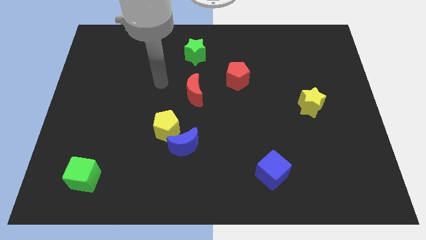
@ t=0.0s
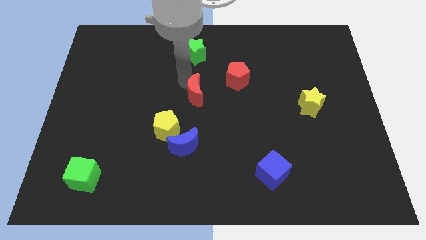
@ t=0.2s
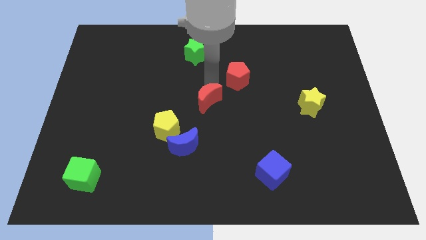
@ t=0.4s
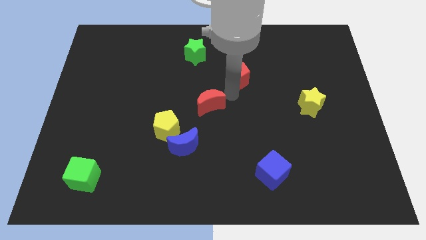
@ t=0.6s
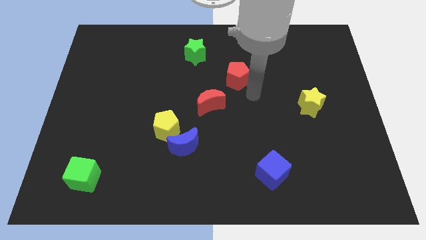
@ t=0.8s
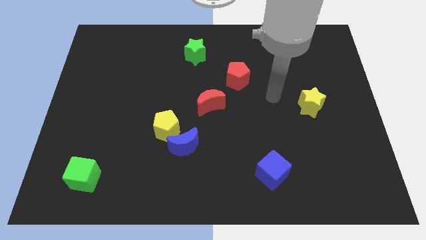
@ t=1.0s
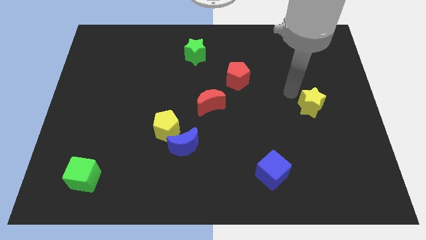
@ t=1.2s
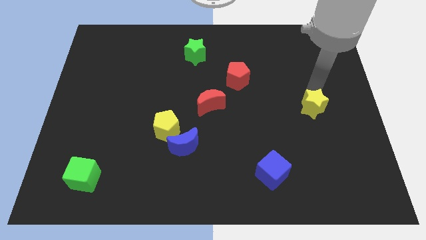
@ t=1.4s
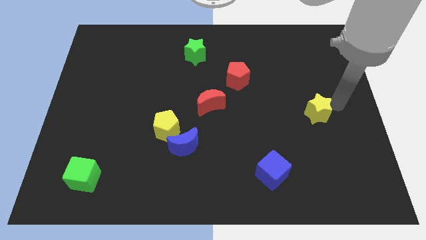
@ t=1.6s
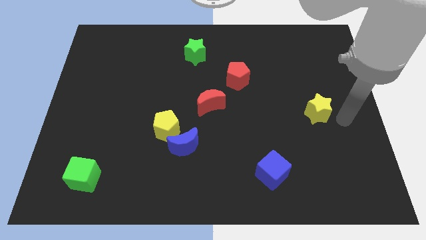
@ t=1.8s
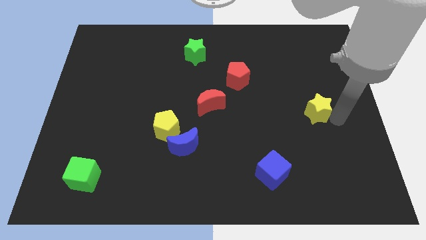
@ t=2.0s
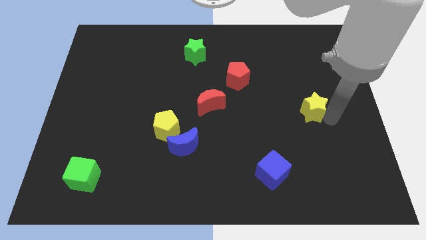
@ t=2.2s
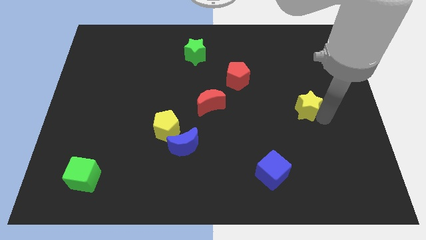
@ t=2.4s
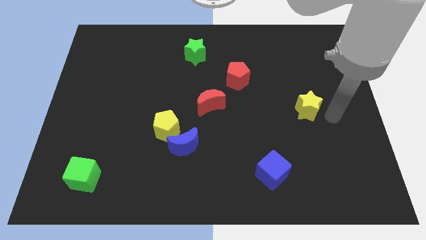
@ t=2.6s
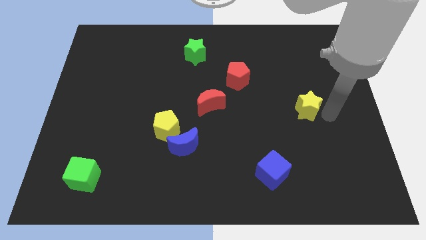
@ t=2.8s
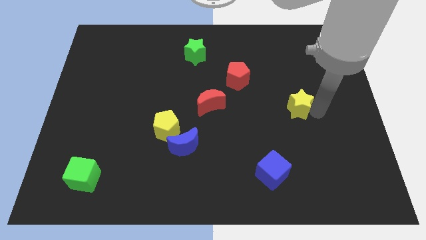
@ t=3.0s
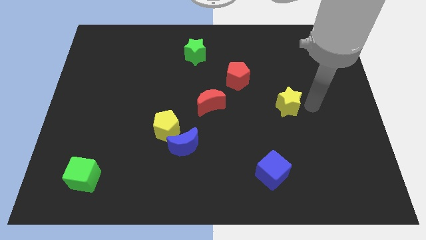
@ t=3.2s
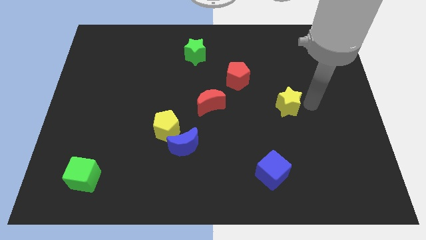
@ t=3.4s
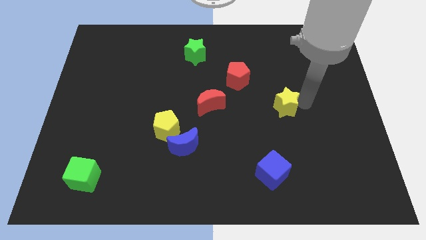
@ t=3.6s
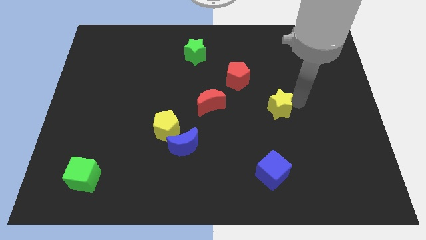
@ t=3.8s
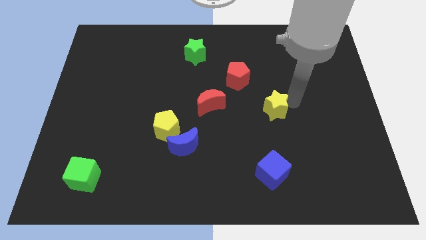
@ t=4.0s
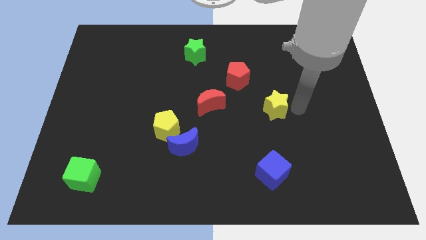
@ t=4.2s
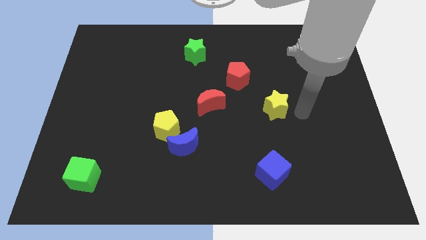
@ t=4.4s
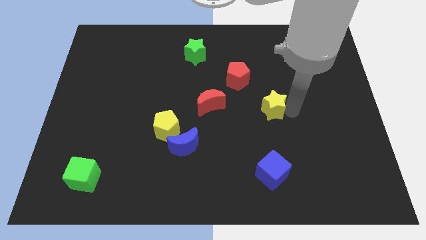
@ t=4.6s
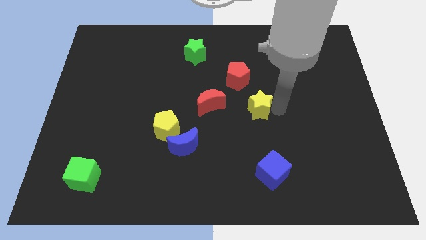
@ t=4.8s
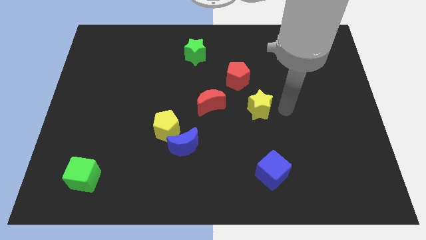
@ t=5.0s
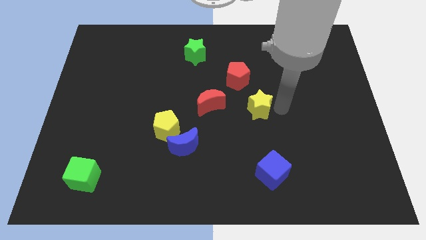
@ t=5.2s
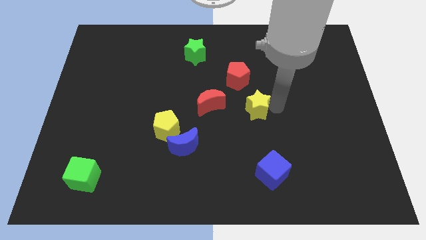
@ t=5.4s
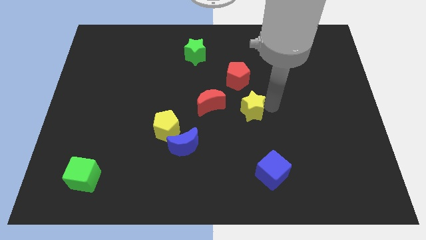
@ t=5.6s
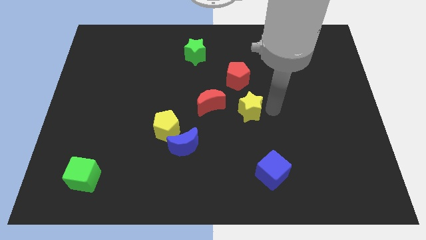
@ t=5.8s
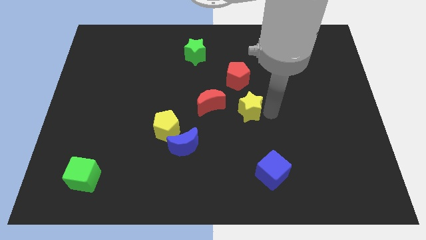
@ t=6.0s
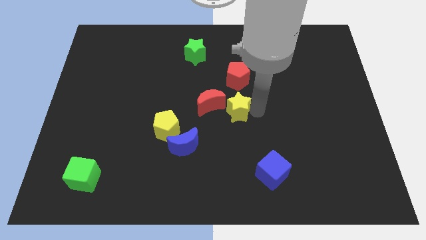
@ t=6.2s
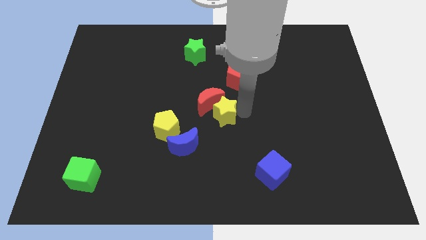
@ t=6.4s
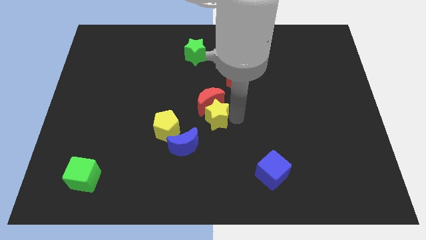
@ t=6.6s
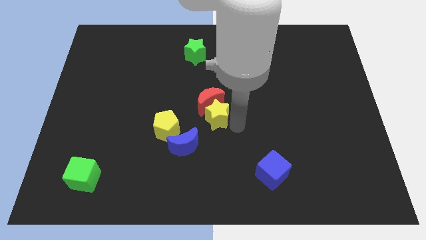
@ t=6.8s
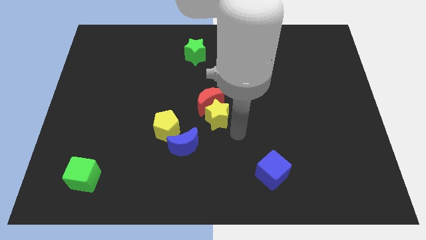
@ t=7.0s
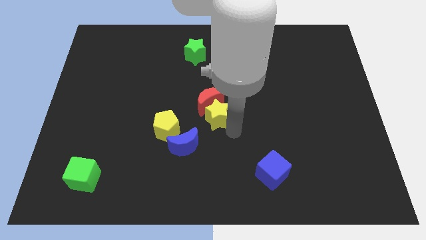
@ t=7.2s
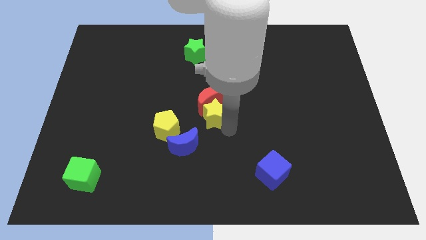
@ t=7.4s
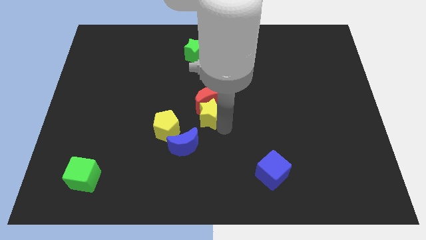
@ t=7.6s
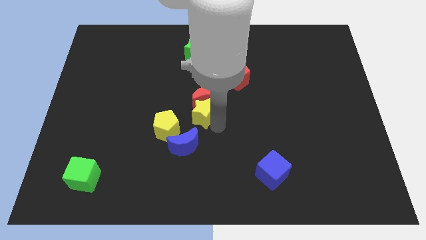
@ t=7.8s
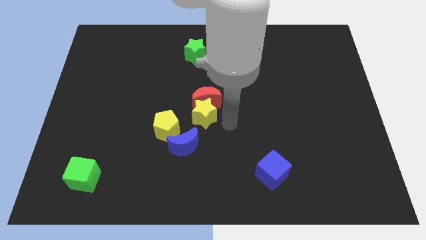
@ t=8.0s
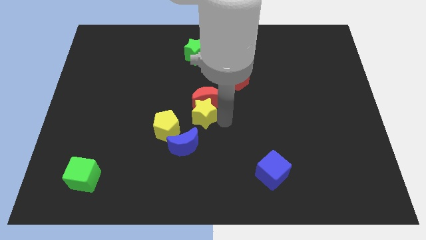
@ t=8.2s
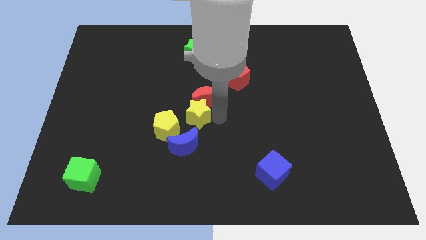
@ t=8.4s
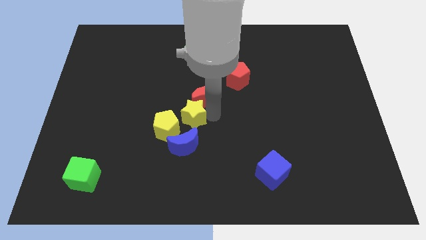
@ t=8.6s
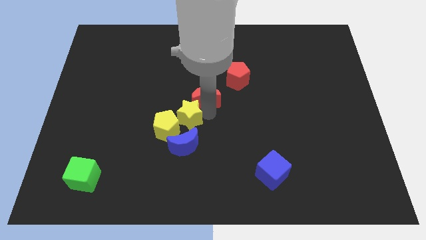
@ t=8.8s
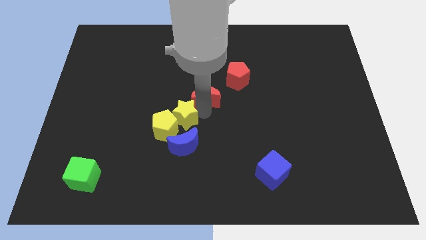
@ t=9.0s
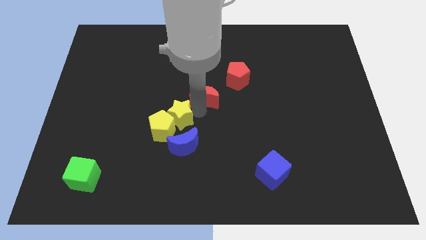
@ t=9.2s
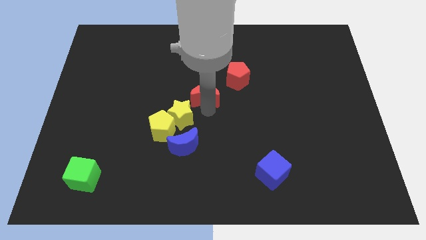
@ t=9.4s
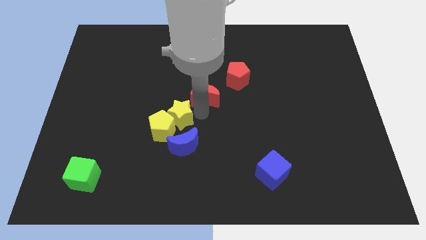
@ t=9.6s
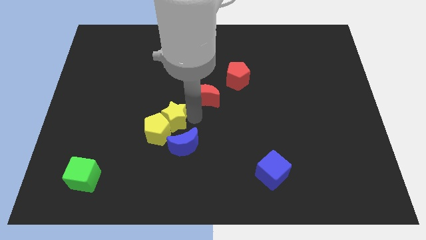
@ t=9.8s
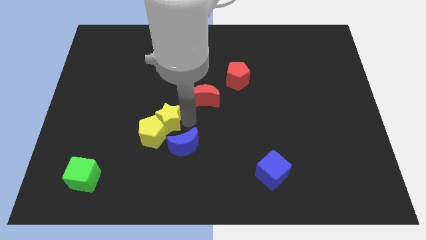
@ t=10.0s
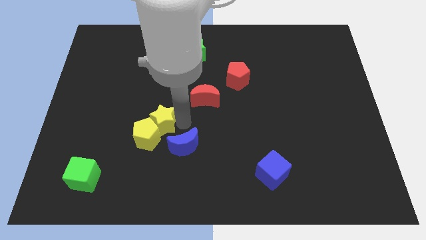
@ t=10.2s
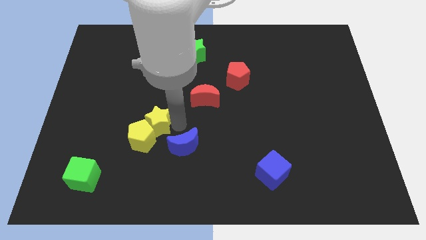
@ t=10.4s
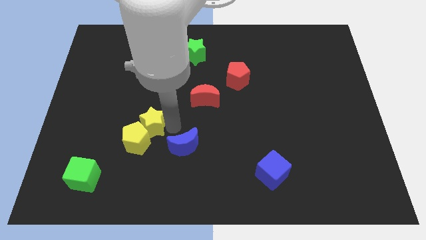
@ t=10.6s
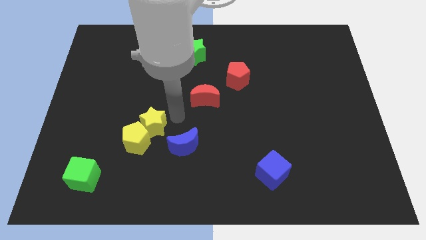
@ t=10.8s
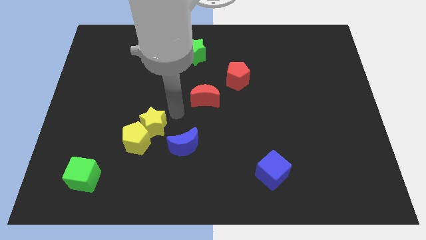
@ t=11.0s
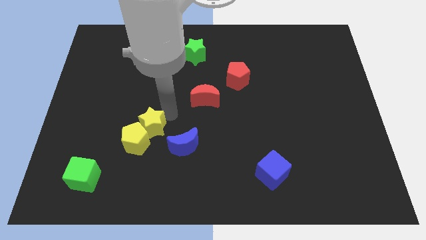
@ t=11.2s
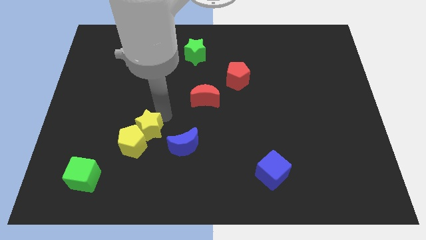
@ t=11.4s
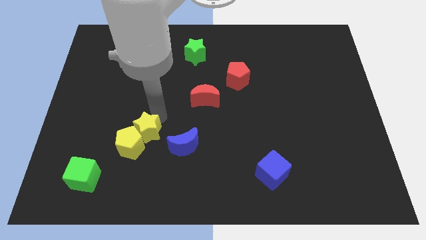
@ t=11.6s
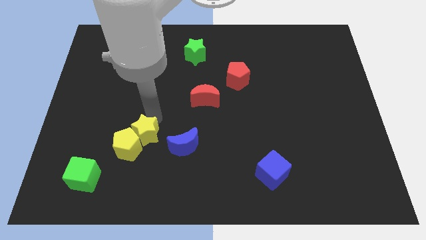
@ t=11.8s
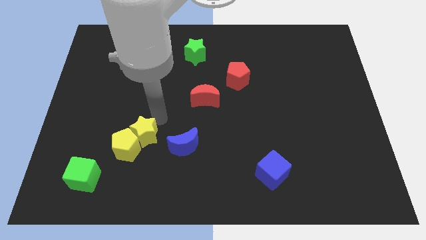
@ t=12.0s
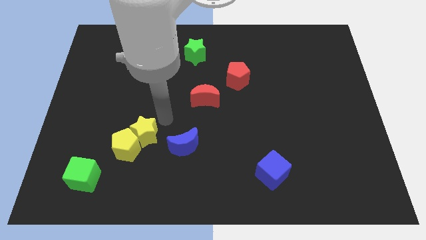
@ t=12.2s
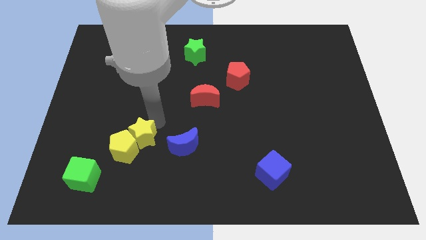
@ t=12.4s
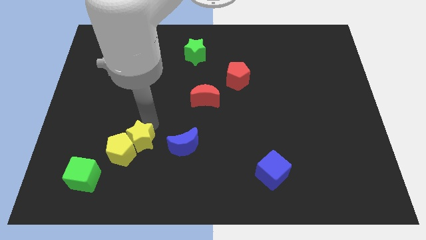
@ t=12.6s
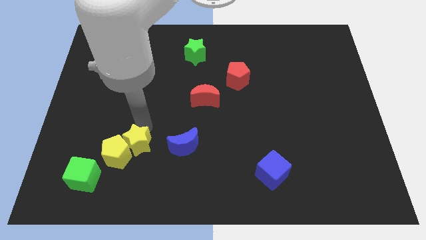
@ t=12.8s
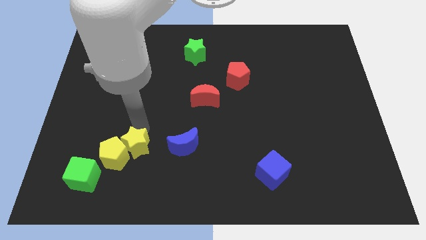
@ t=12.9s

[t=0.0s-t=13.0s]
move the yellow star to the top right side of the green cube

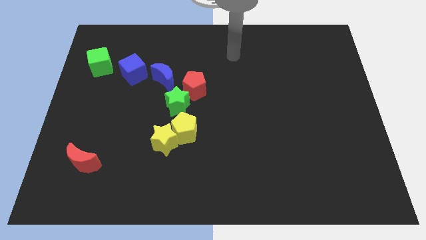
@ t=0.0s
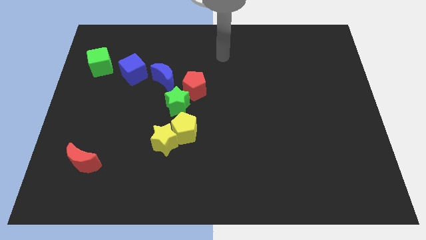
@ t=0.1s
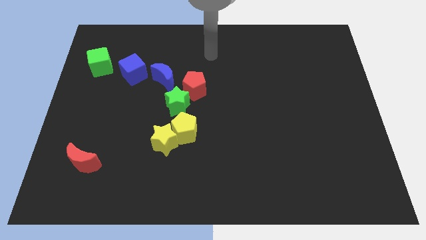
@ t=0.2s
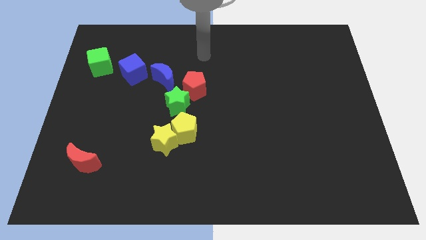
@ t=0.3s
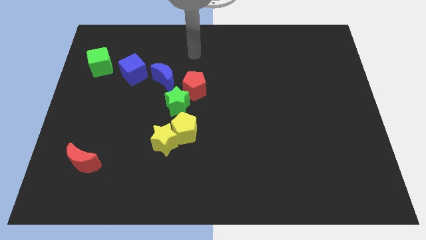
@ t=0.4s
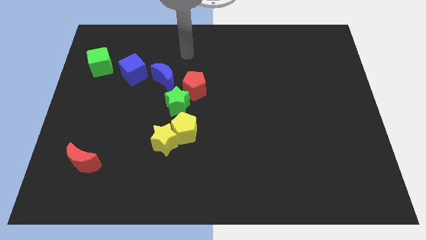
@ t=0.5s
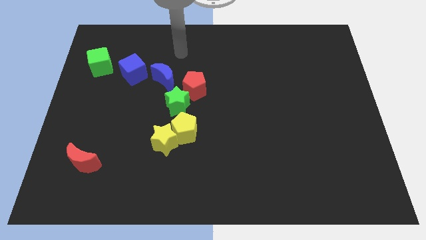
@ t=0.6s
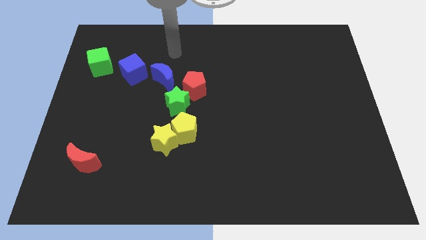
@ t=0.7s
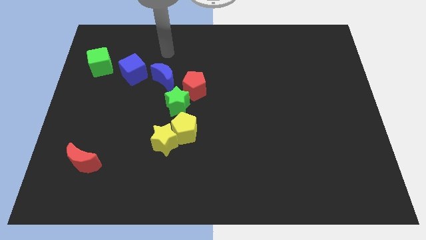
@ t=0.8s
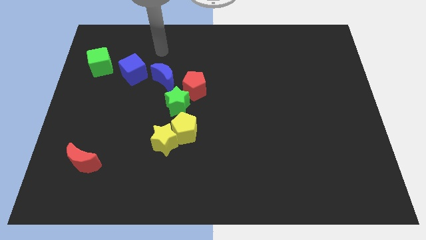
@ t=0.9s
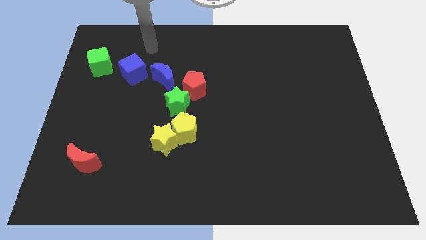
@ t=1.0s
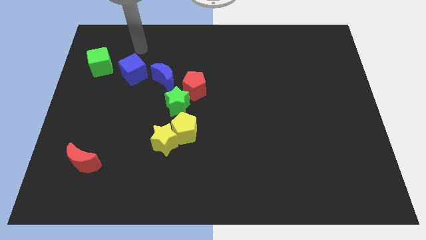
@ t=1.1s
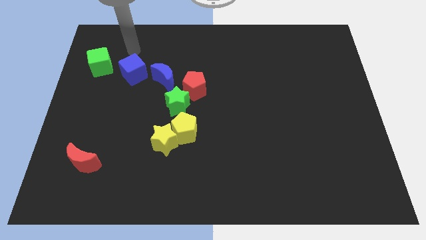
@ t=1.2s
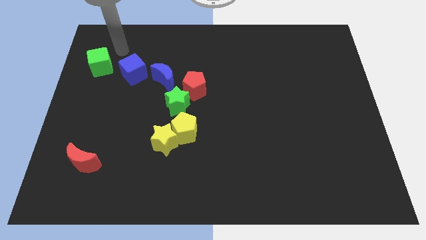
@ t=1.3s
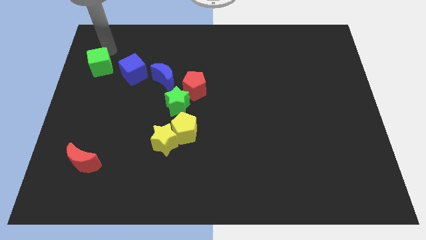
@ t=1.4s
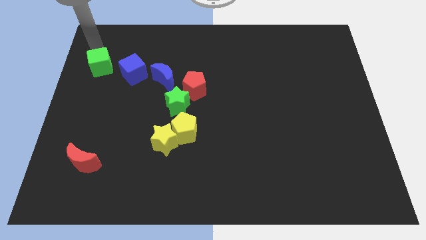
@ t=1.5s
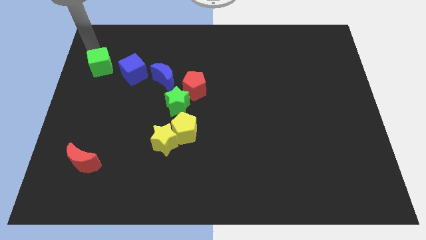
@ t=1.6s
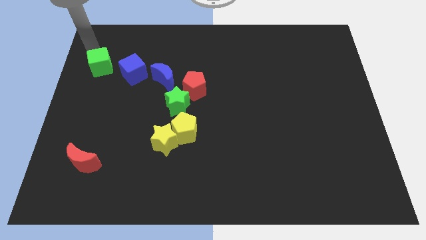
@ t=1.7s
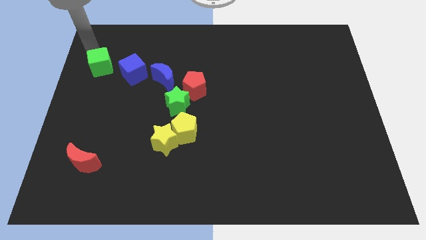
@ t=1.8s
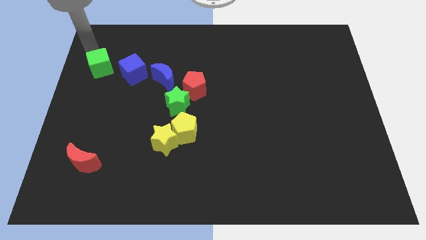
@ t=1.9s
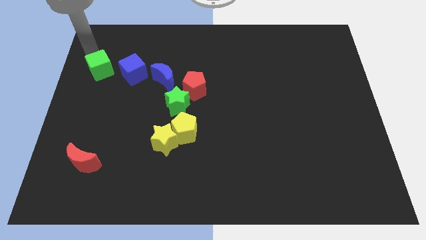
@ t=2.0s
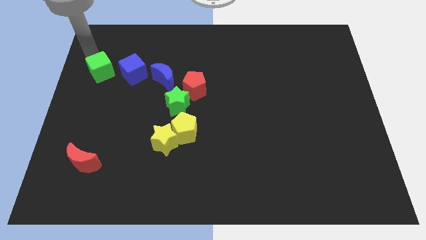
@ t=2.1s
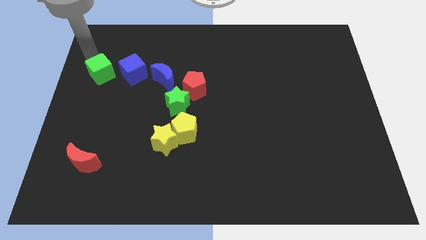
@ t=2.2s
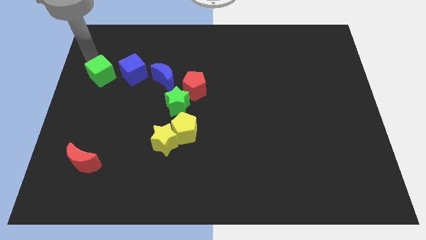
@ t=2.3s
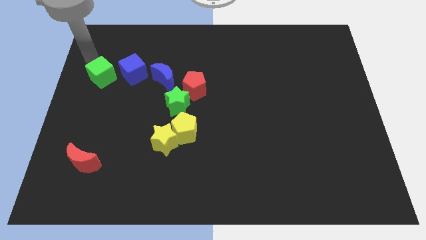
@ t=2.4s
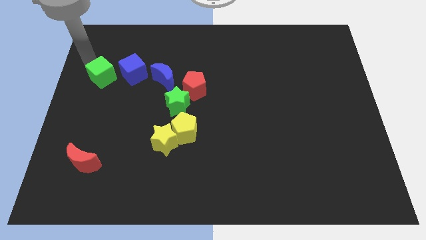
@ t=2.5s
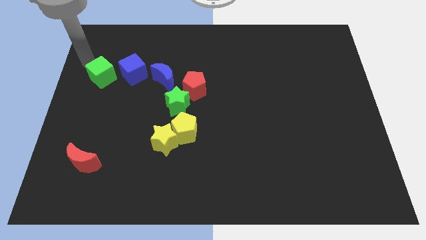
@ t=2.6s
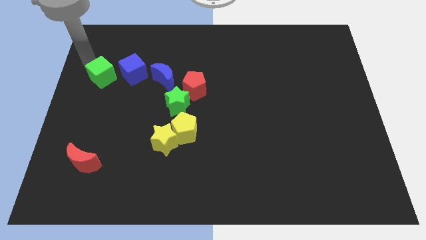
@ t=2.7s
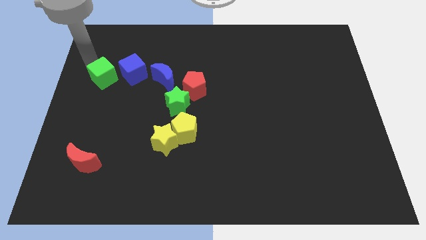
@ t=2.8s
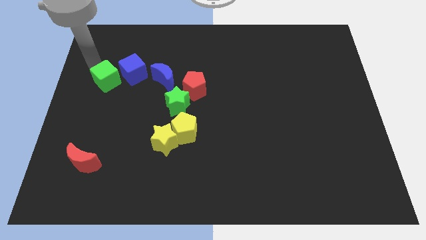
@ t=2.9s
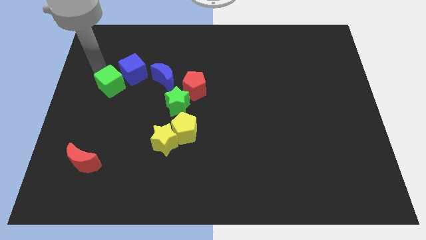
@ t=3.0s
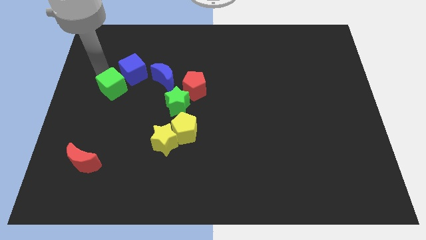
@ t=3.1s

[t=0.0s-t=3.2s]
slide the green cube to the bottom side of the blue cube
